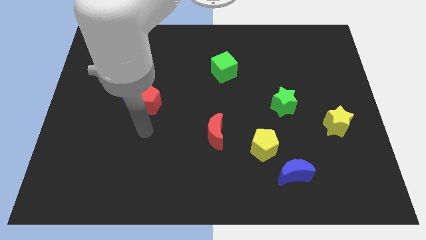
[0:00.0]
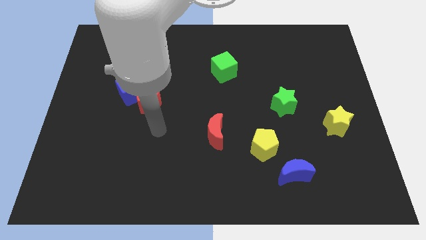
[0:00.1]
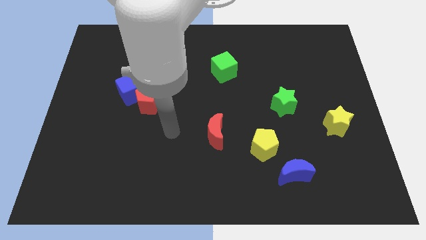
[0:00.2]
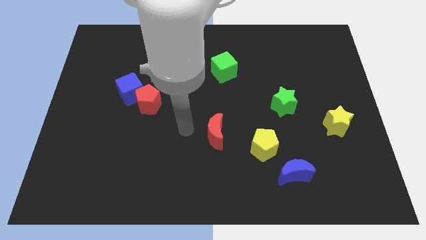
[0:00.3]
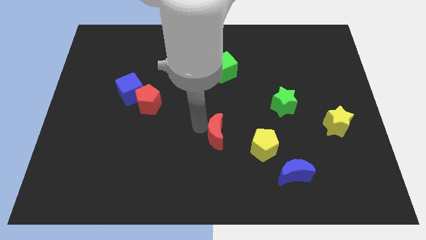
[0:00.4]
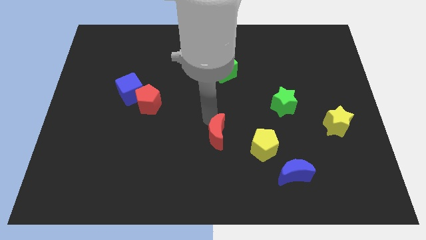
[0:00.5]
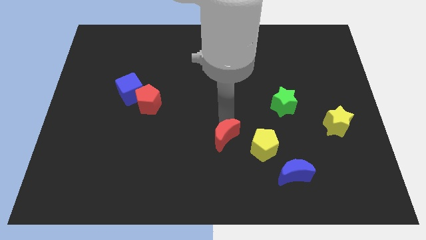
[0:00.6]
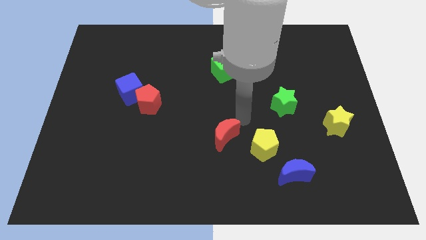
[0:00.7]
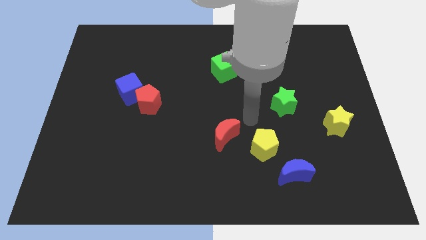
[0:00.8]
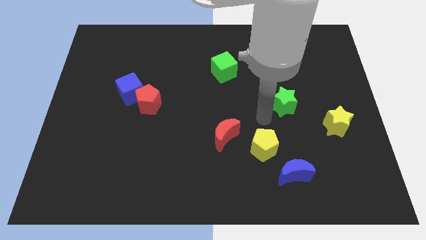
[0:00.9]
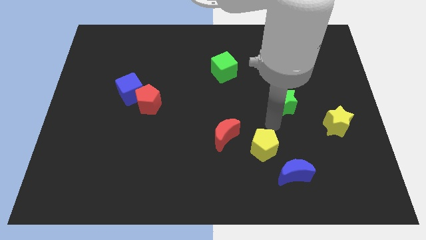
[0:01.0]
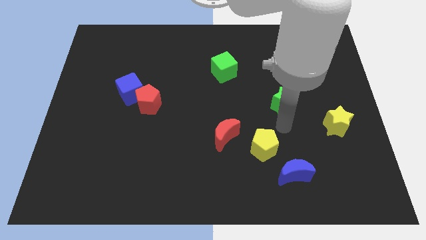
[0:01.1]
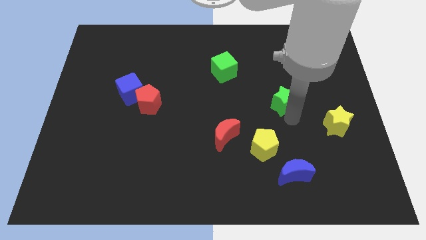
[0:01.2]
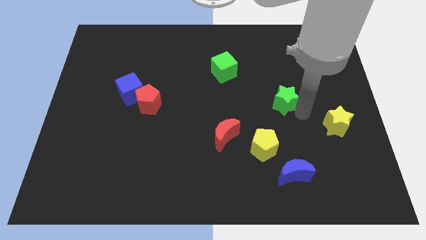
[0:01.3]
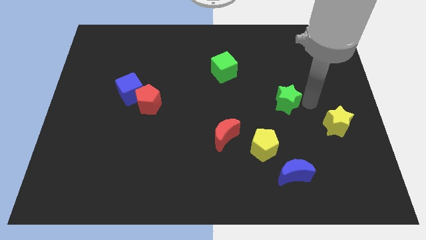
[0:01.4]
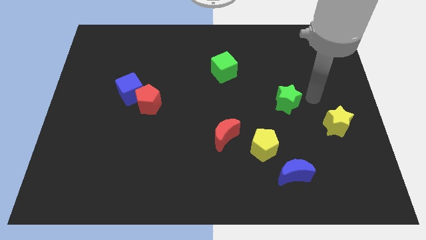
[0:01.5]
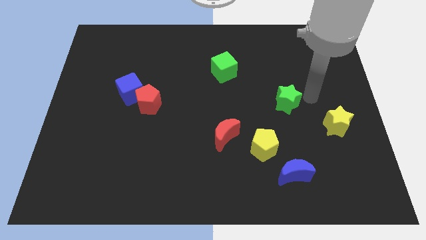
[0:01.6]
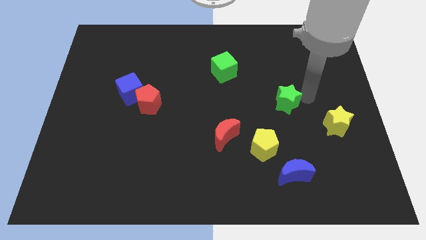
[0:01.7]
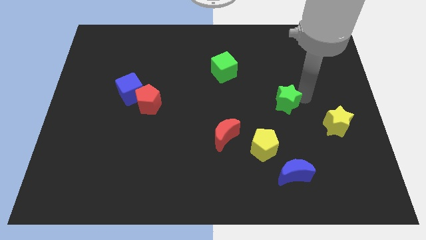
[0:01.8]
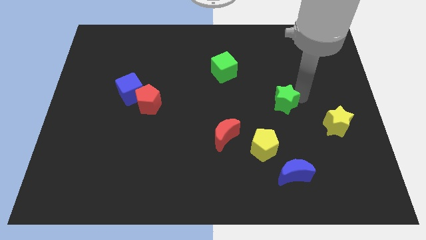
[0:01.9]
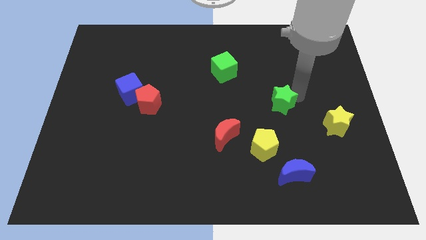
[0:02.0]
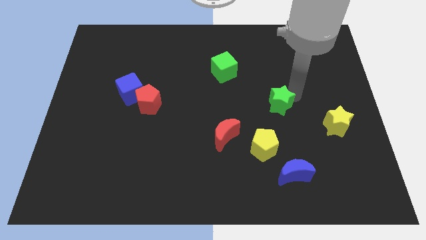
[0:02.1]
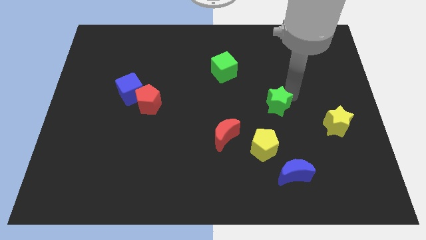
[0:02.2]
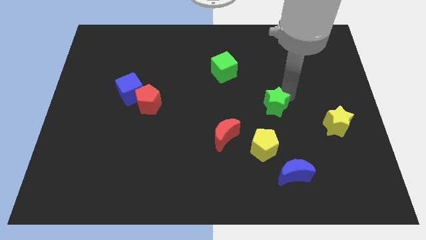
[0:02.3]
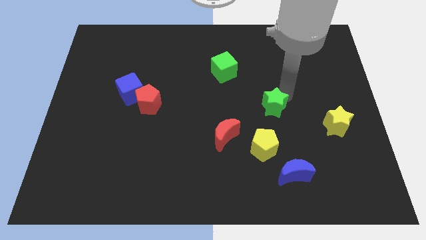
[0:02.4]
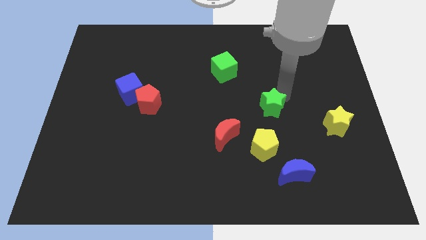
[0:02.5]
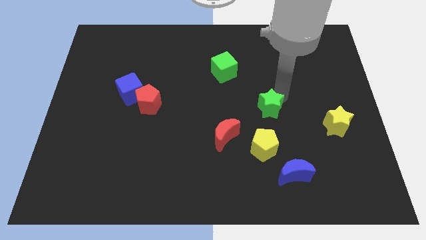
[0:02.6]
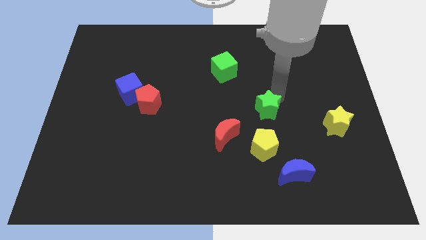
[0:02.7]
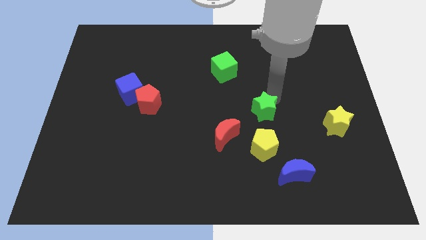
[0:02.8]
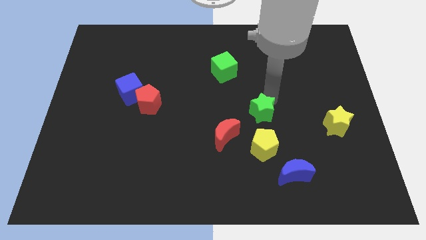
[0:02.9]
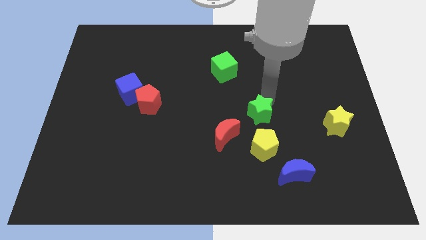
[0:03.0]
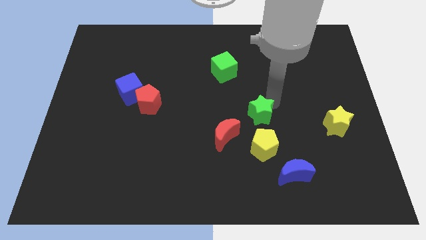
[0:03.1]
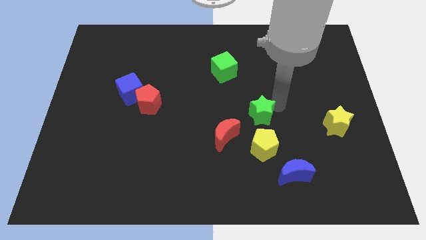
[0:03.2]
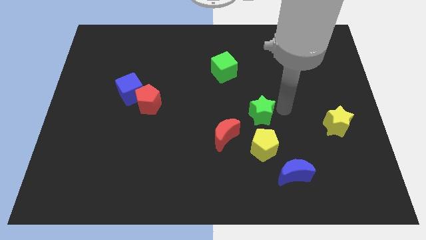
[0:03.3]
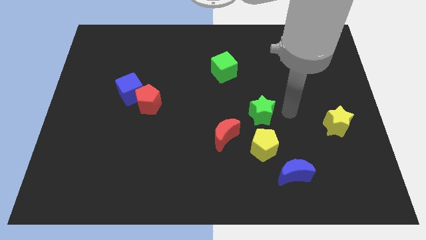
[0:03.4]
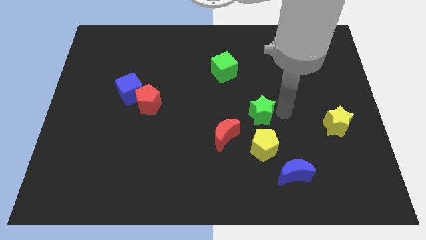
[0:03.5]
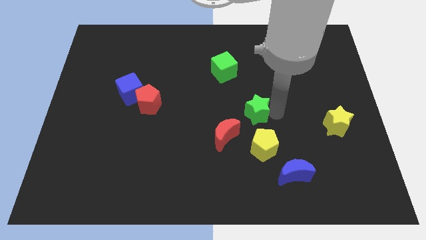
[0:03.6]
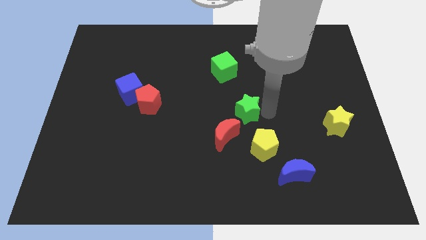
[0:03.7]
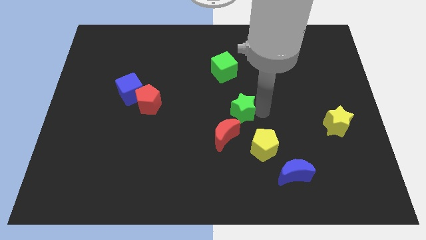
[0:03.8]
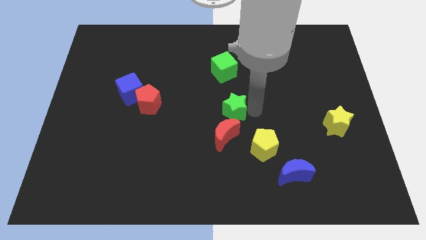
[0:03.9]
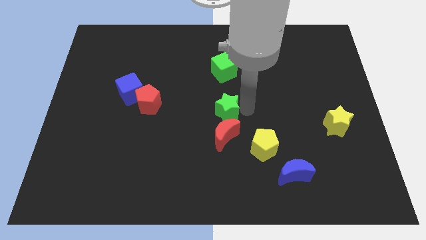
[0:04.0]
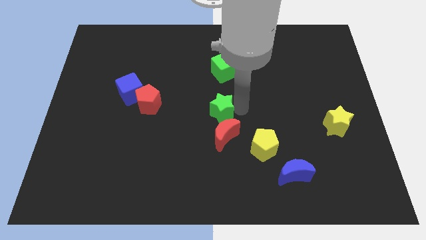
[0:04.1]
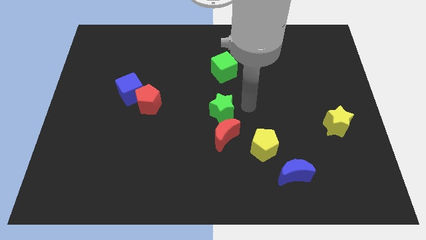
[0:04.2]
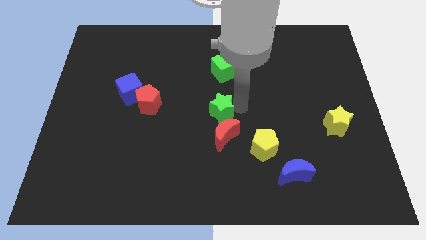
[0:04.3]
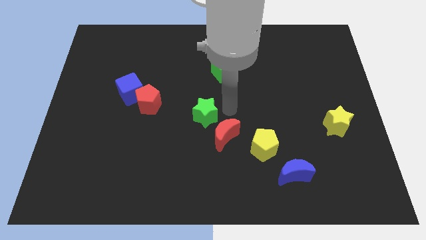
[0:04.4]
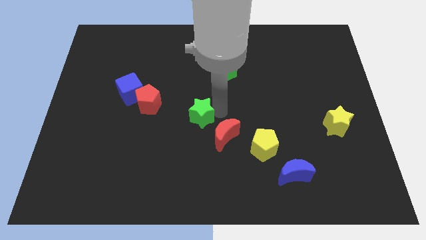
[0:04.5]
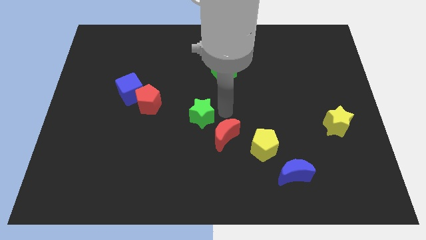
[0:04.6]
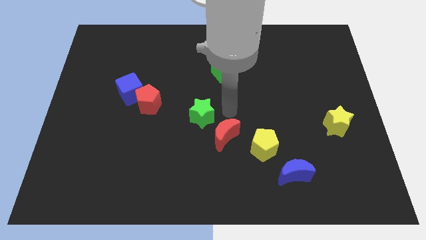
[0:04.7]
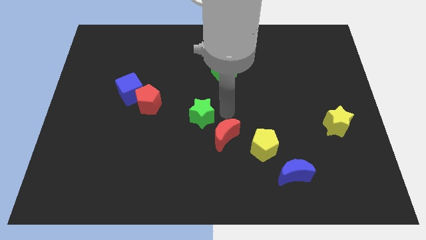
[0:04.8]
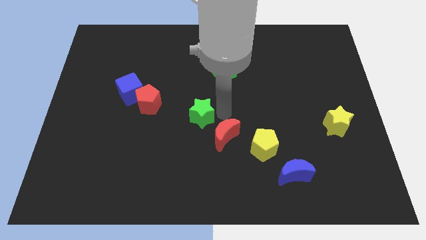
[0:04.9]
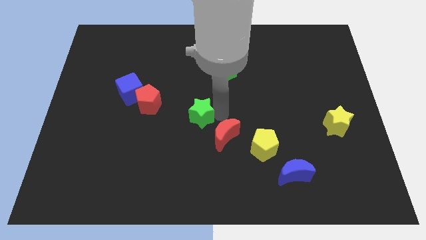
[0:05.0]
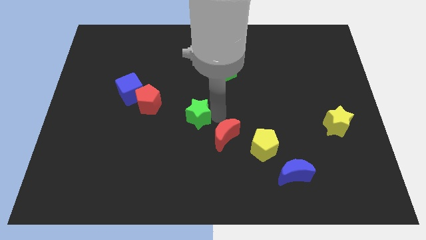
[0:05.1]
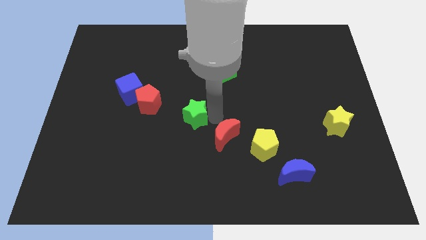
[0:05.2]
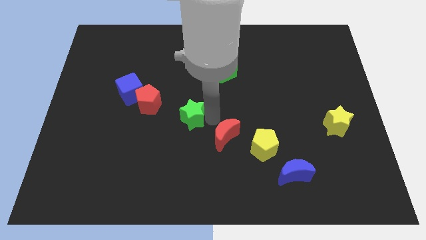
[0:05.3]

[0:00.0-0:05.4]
put the green star diagonally down and to the right of the red pentagon
